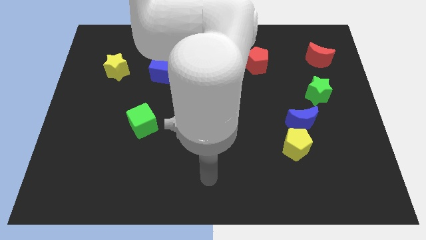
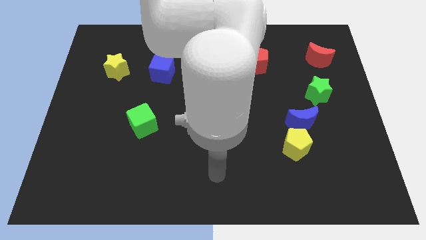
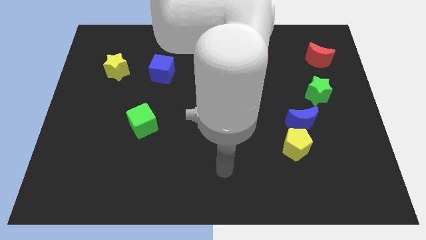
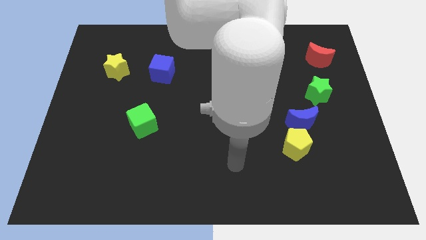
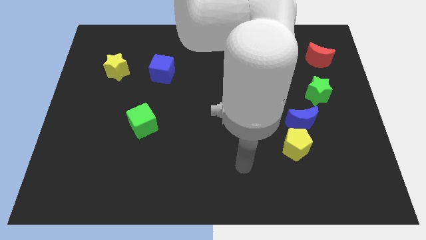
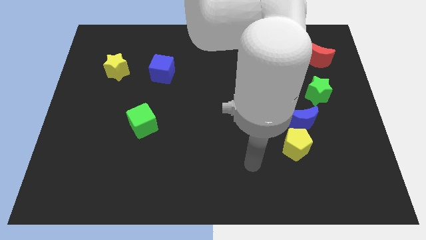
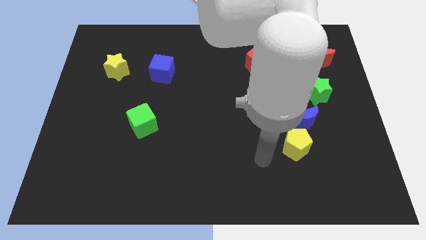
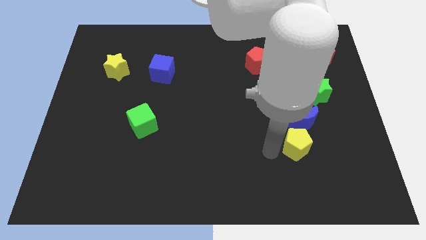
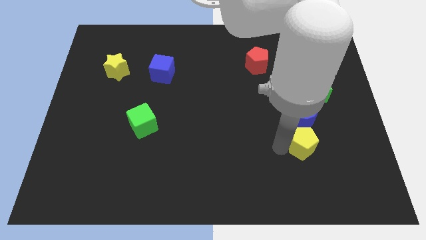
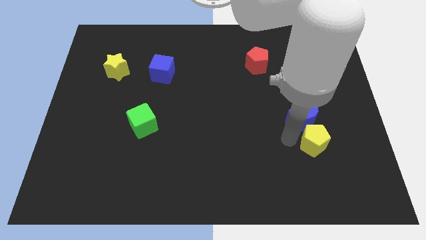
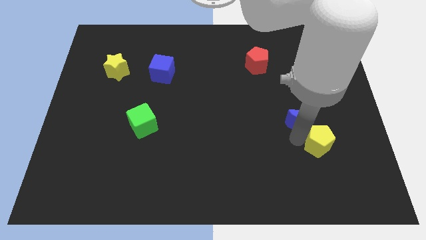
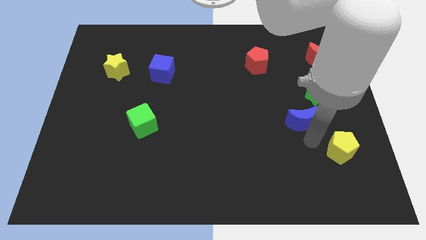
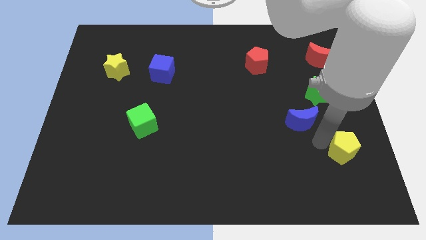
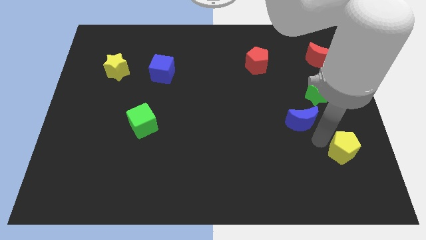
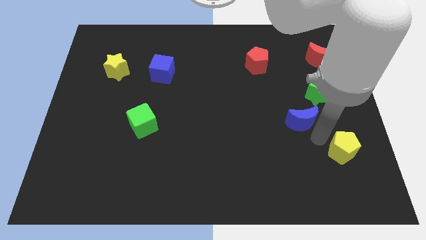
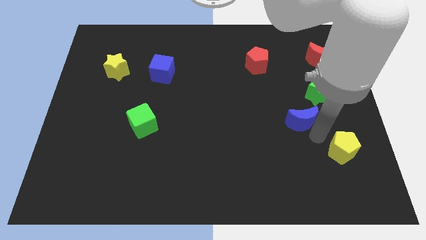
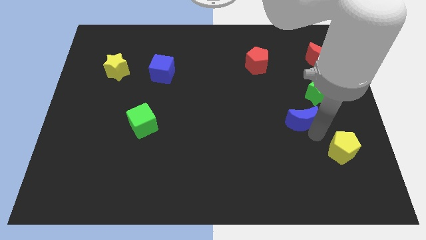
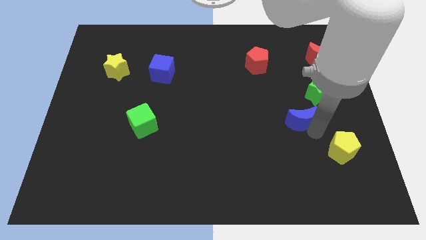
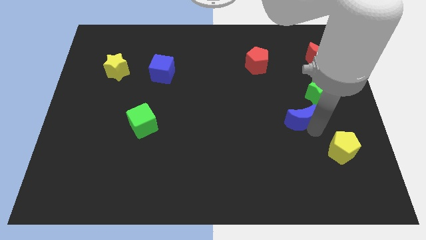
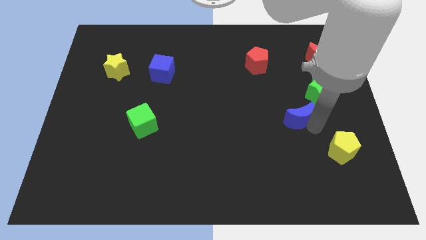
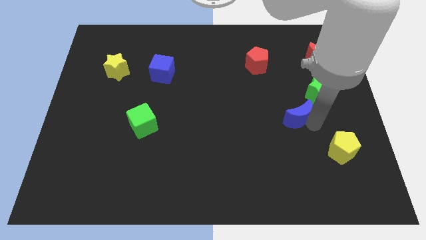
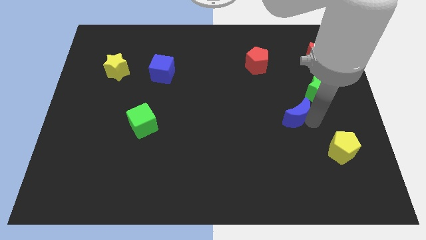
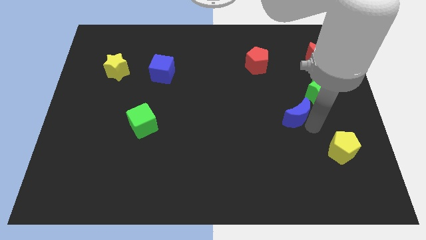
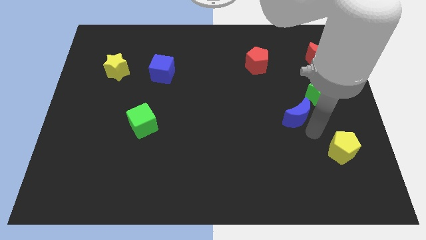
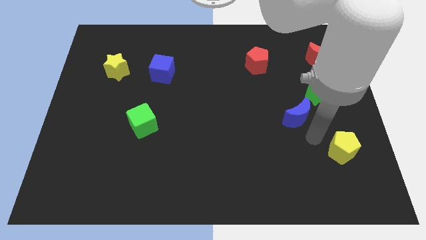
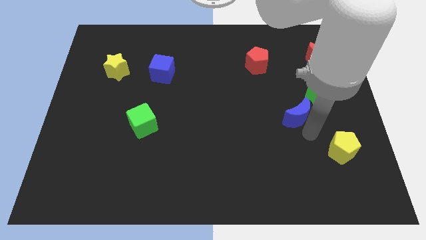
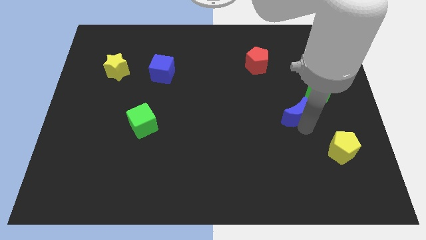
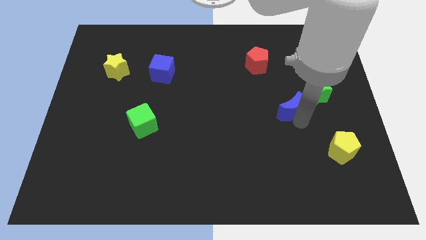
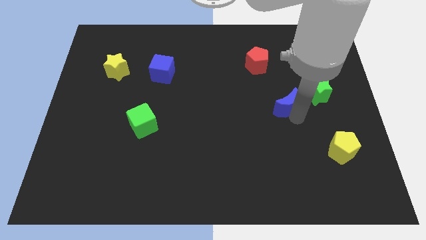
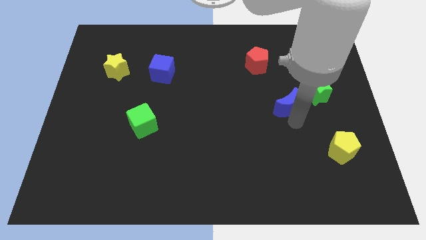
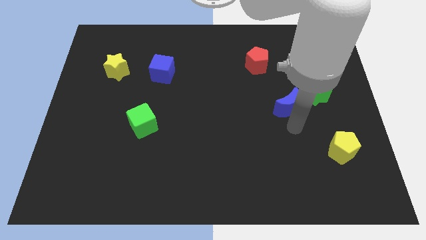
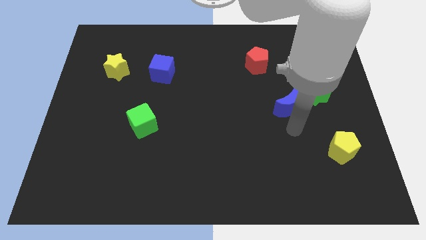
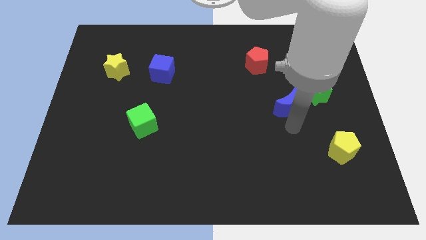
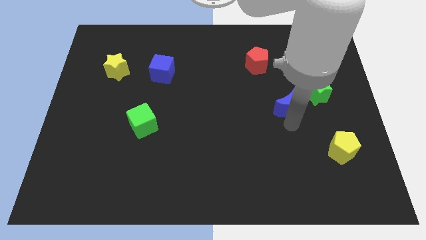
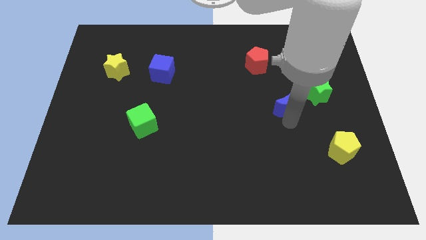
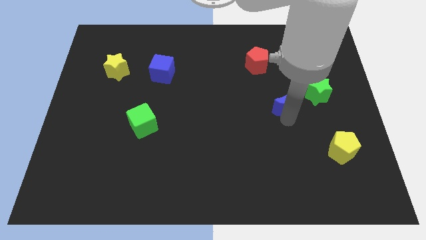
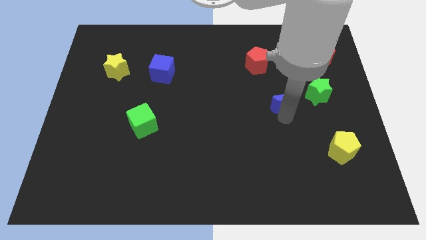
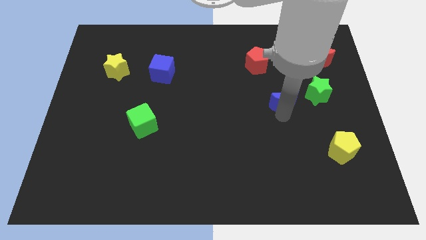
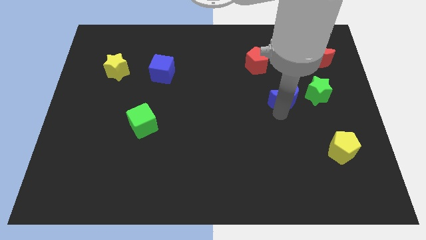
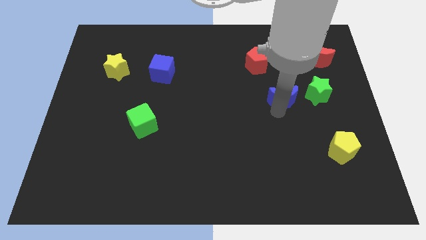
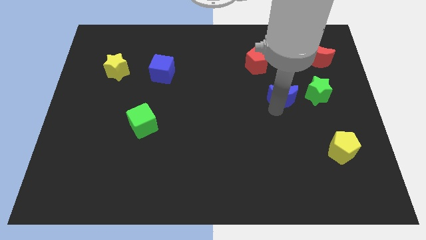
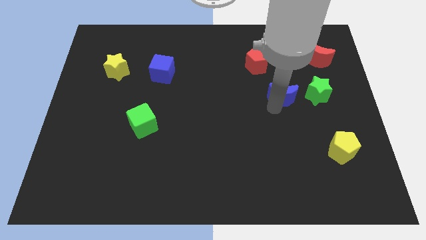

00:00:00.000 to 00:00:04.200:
slightly push the blue moon upwards

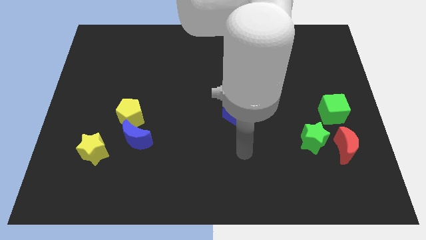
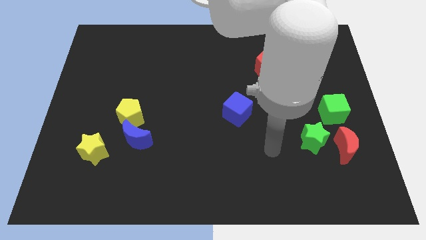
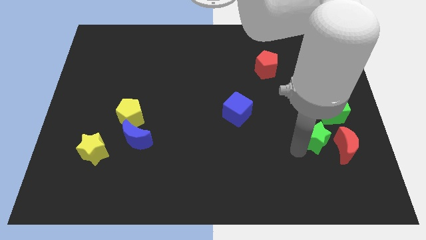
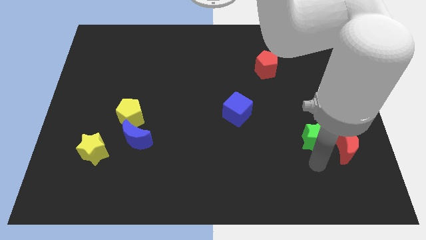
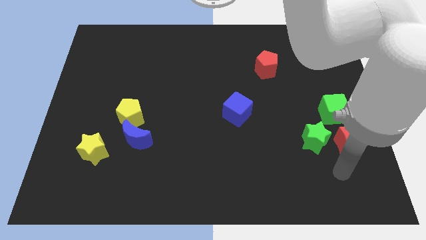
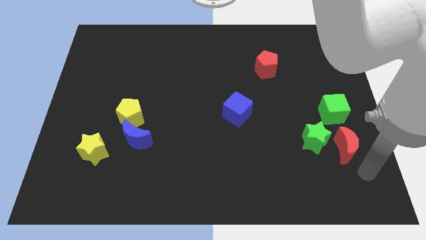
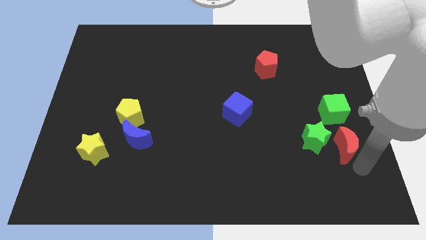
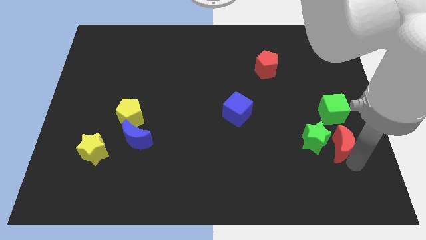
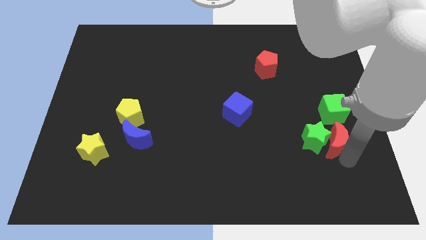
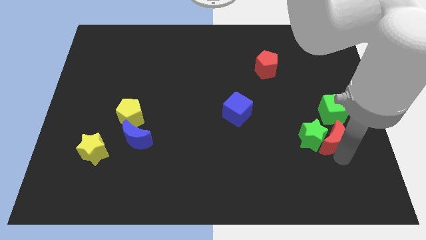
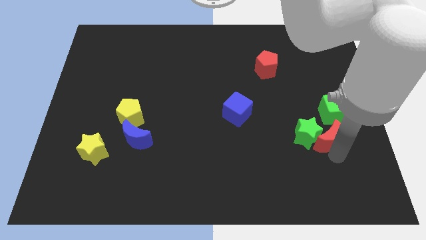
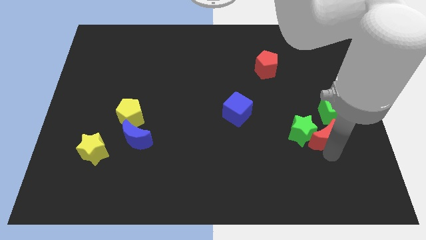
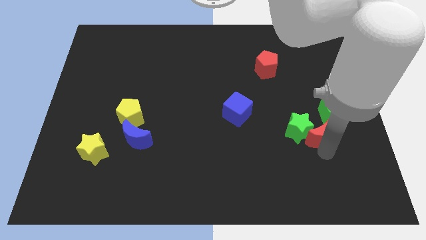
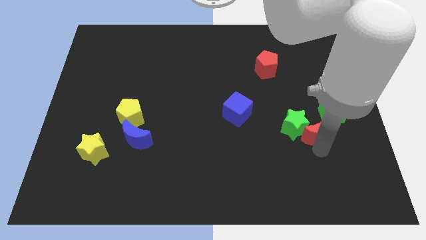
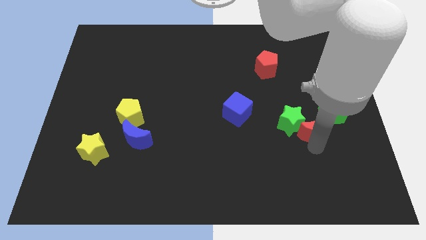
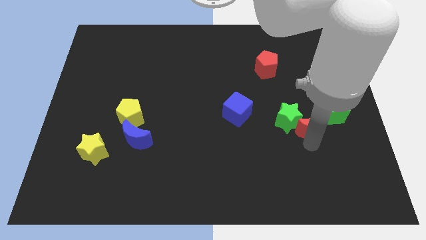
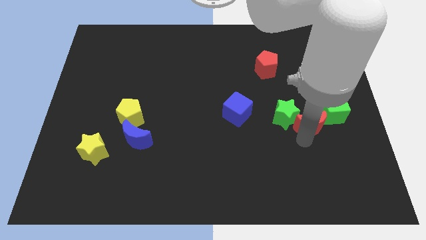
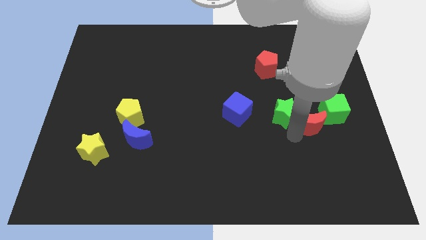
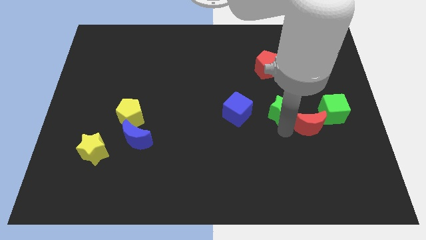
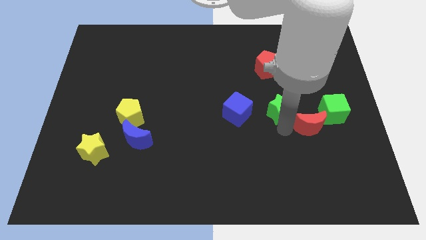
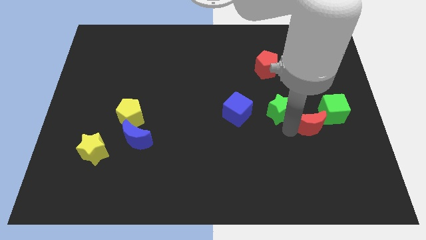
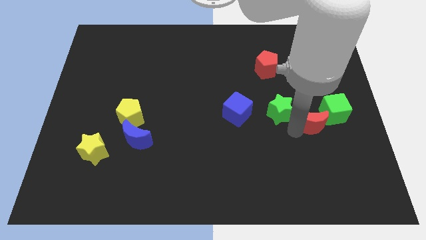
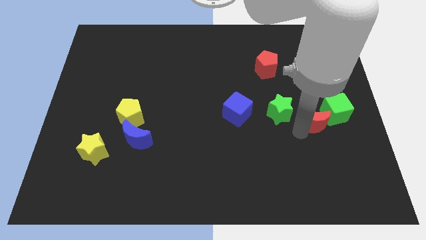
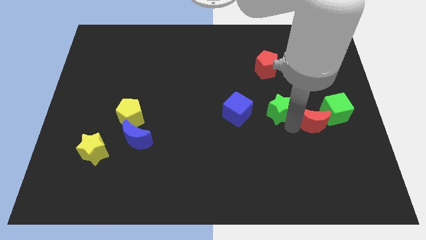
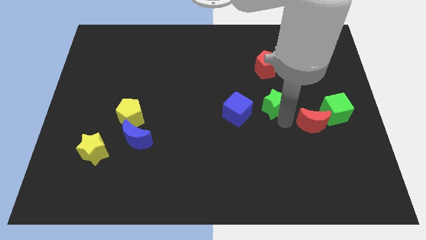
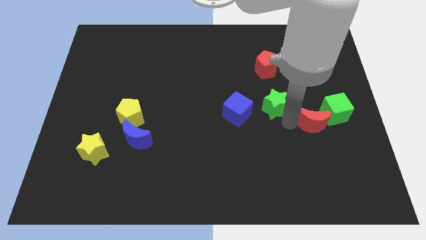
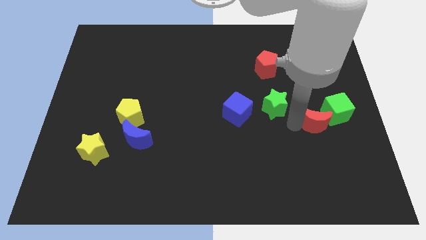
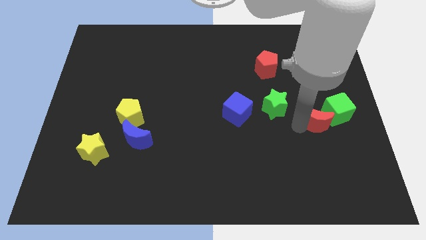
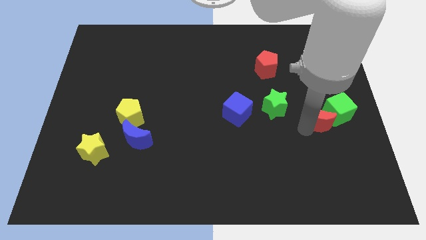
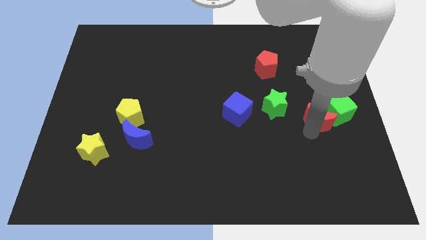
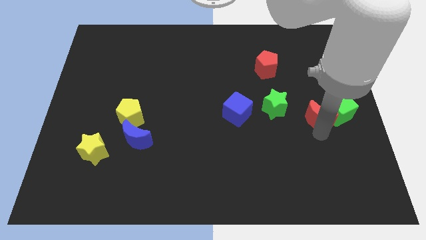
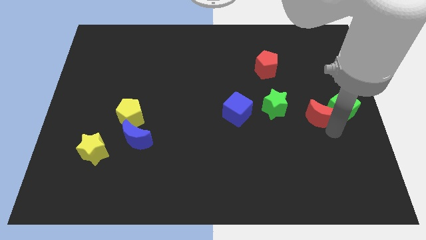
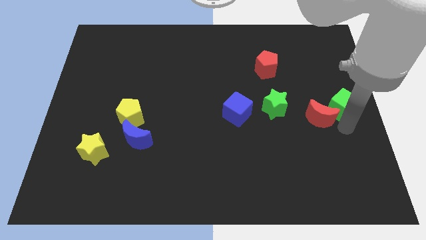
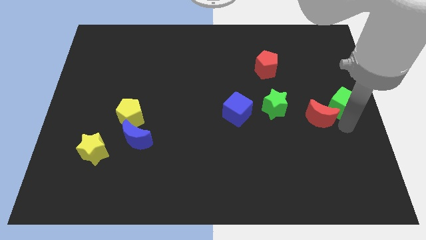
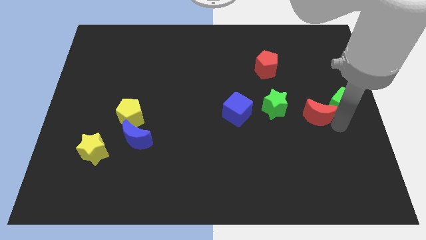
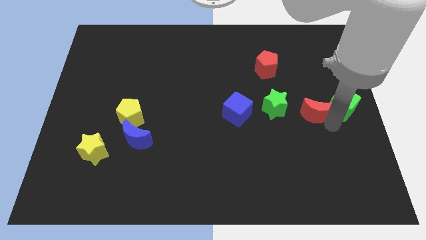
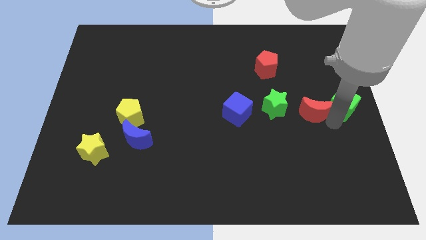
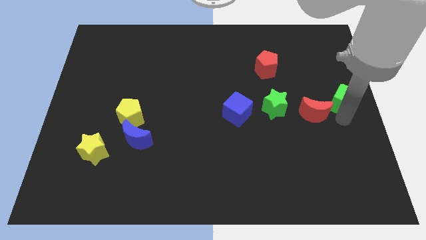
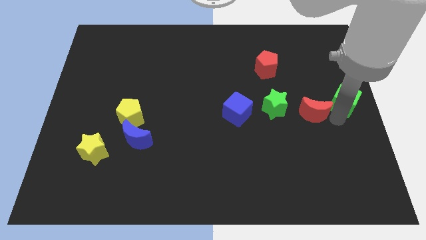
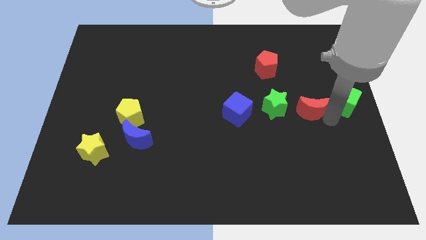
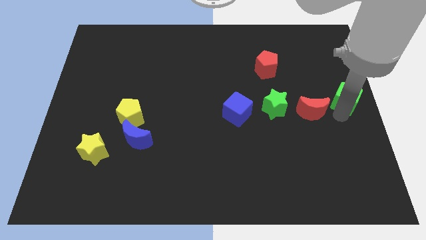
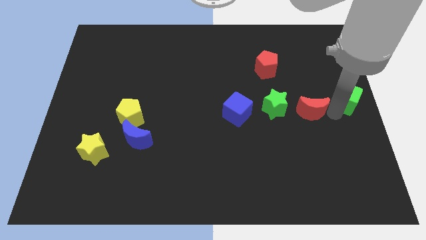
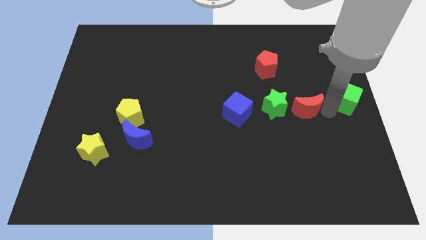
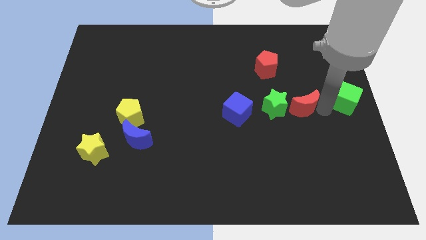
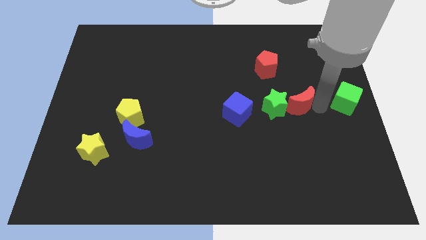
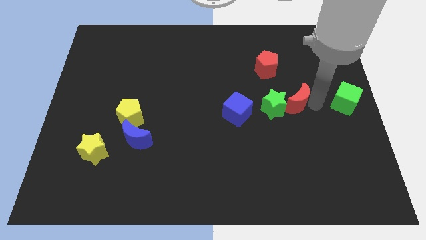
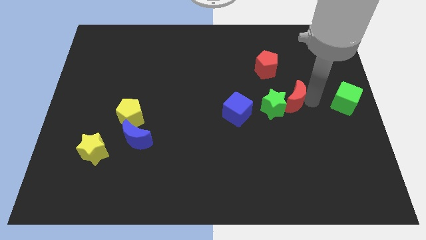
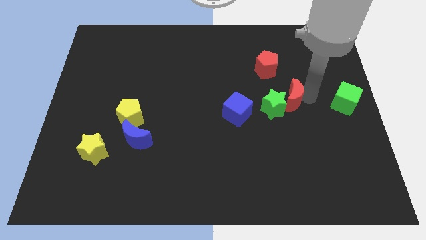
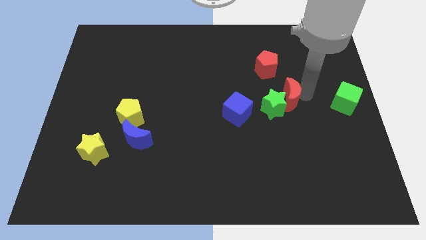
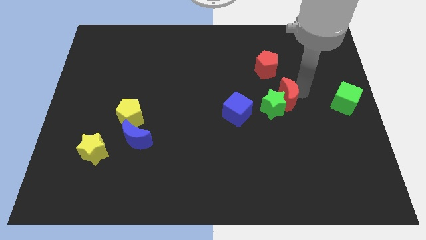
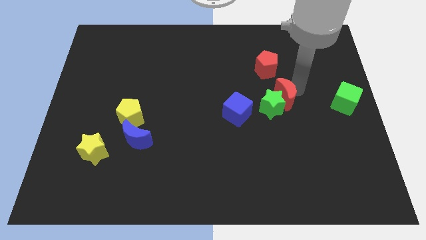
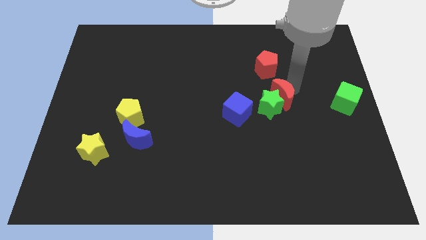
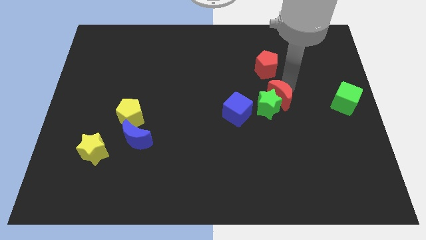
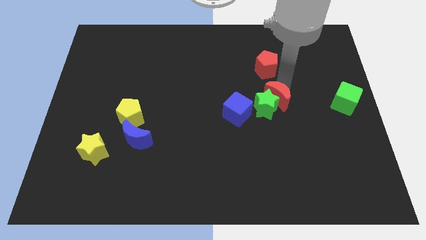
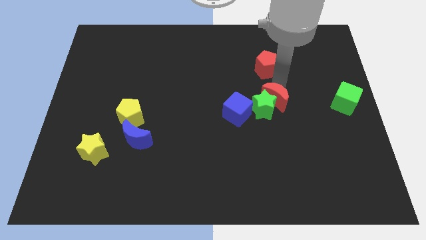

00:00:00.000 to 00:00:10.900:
slide the red moon upwards and then left
